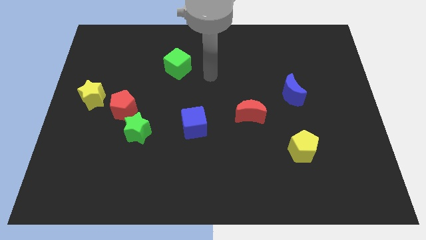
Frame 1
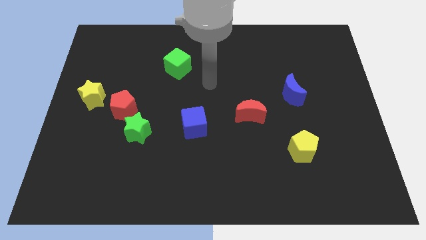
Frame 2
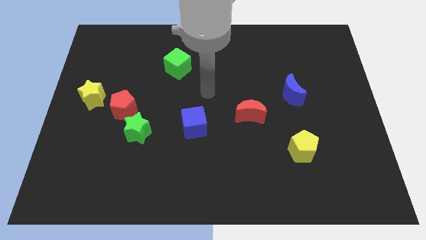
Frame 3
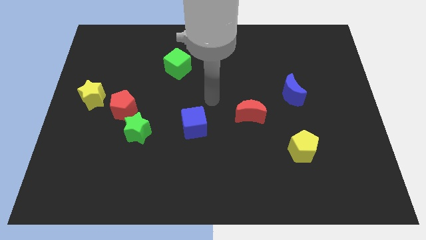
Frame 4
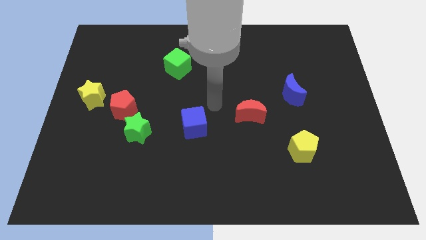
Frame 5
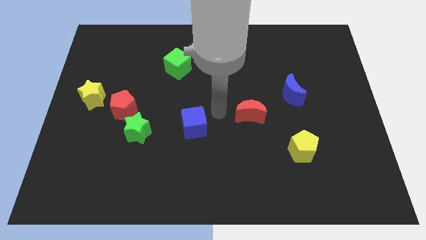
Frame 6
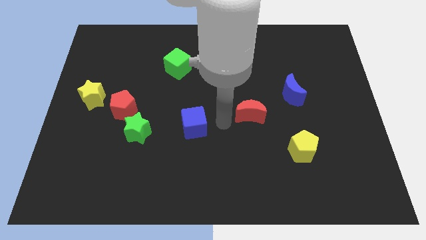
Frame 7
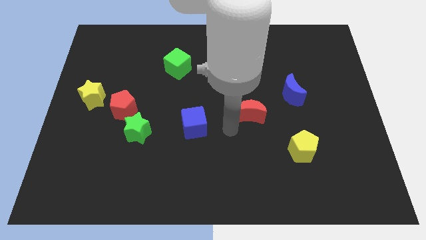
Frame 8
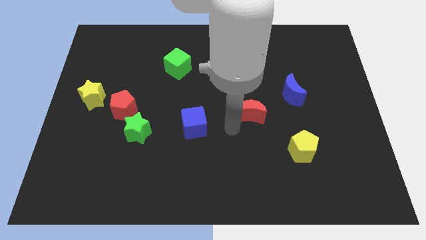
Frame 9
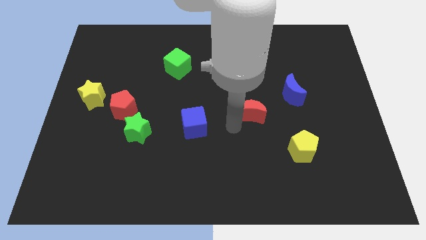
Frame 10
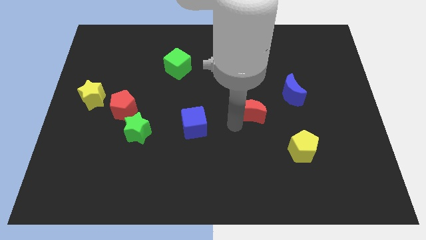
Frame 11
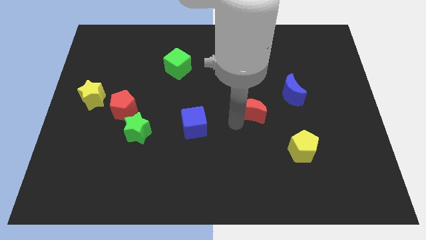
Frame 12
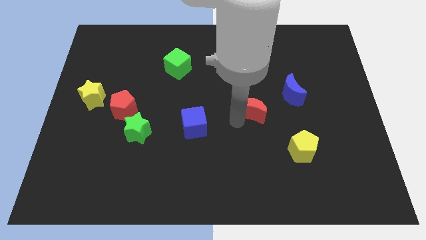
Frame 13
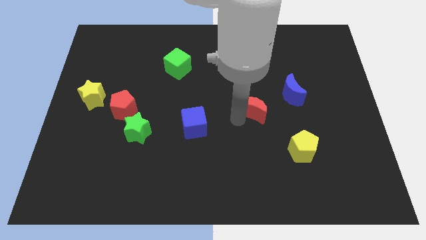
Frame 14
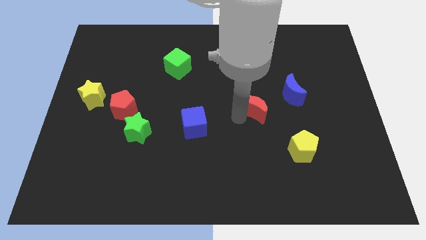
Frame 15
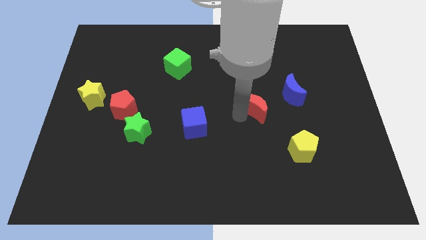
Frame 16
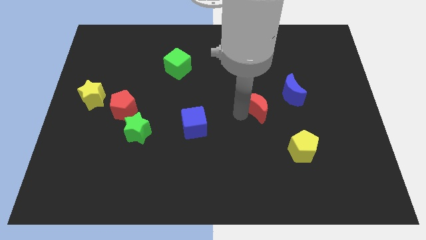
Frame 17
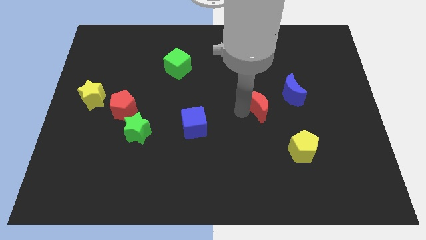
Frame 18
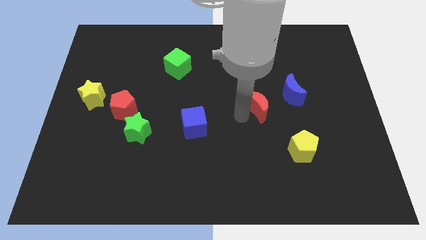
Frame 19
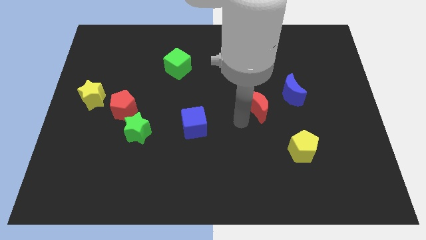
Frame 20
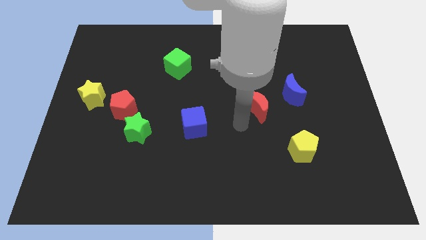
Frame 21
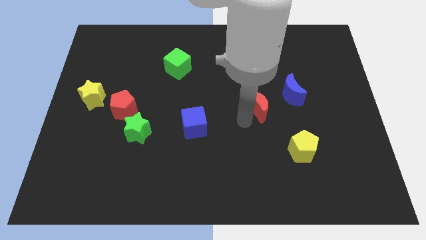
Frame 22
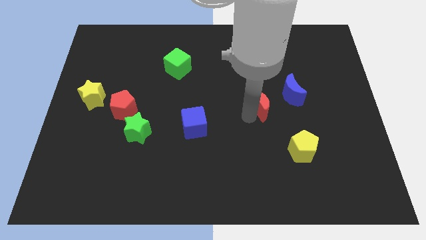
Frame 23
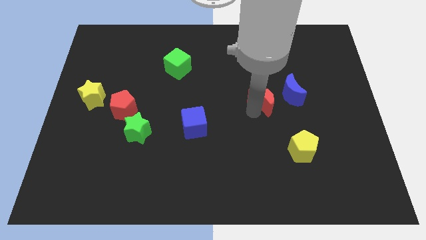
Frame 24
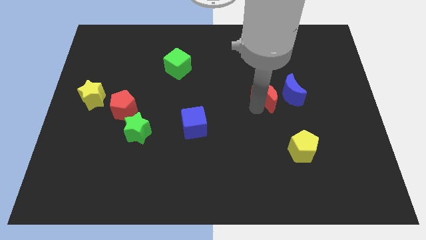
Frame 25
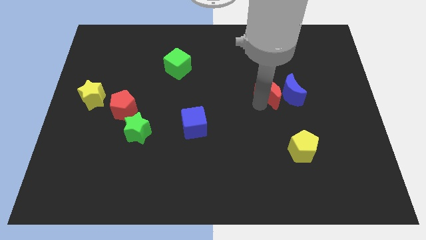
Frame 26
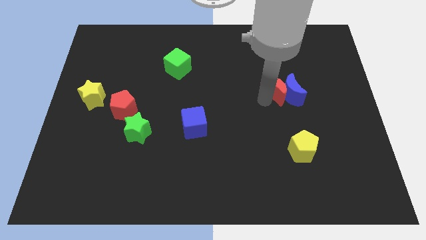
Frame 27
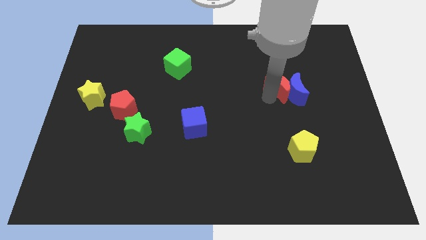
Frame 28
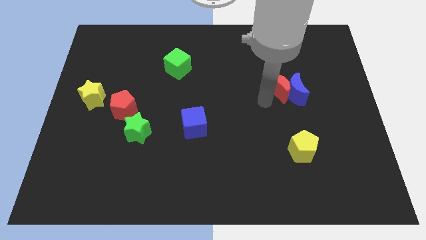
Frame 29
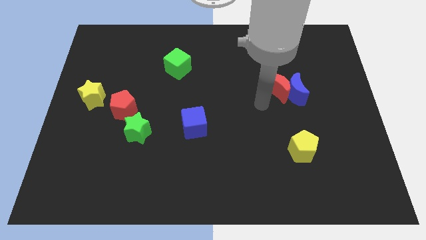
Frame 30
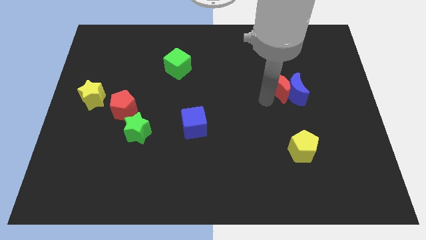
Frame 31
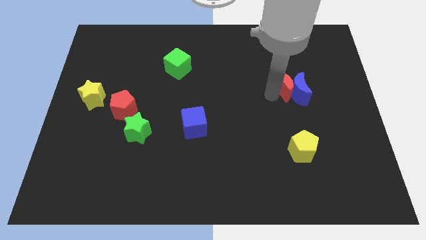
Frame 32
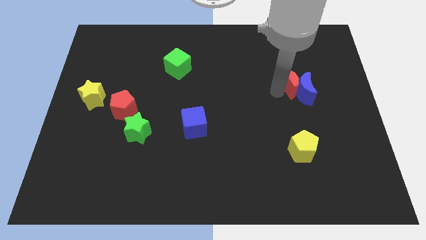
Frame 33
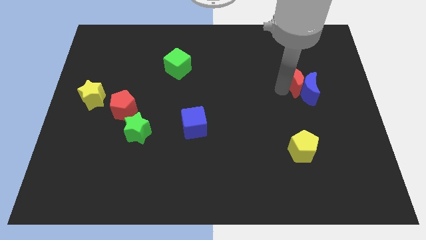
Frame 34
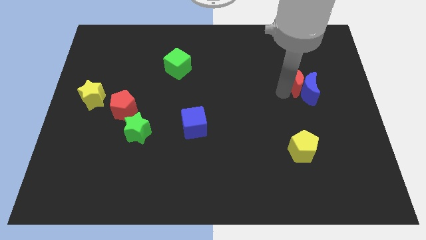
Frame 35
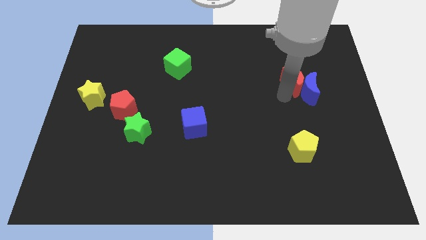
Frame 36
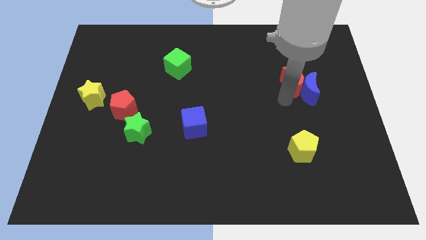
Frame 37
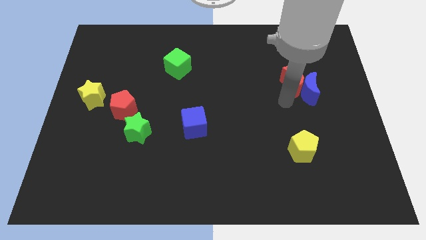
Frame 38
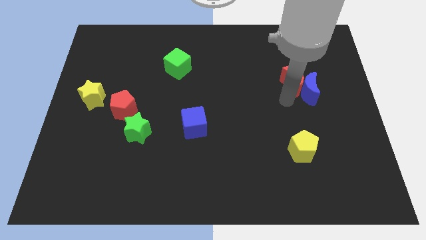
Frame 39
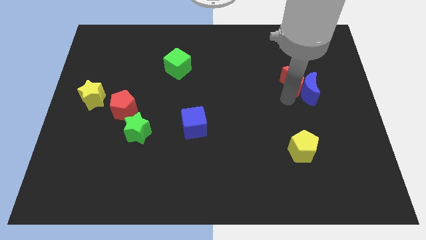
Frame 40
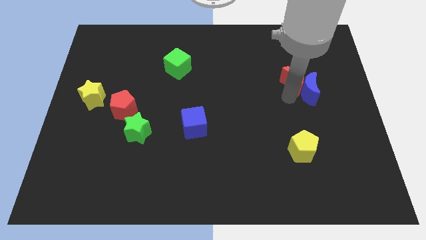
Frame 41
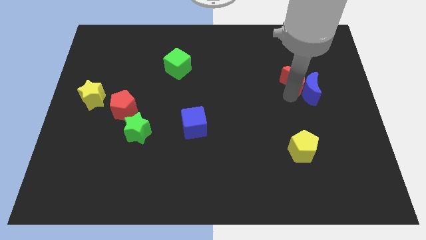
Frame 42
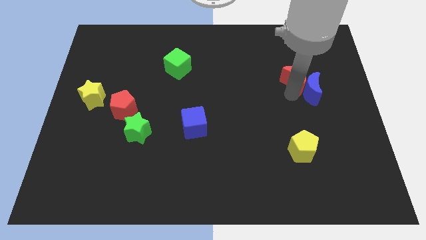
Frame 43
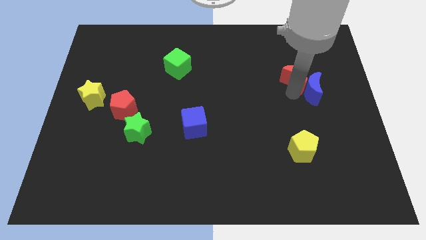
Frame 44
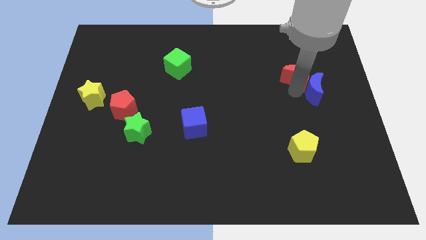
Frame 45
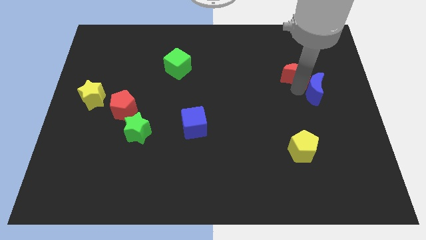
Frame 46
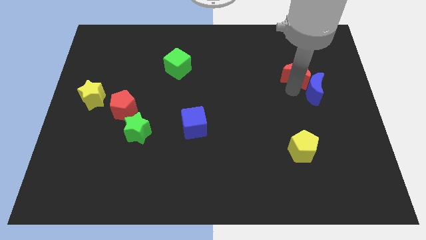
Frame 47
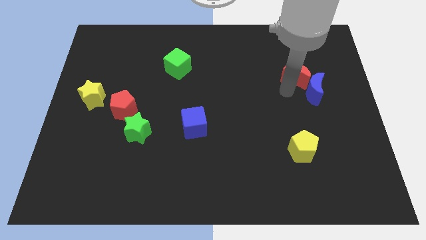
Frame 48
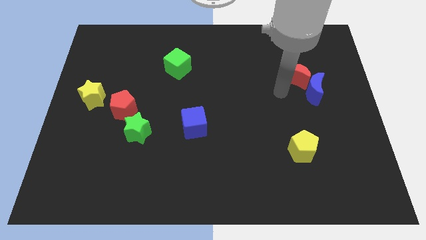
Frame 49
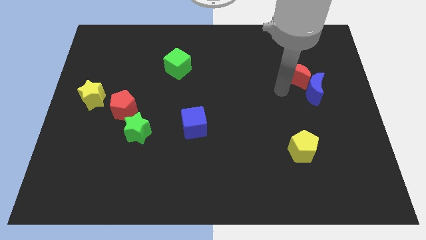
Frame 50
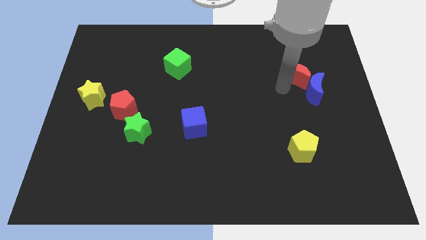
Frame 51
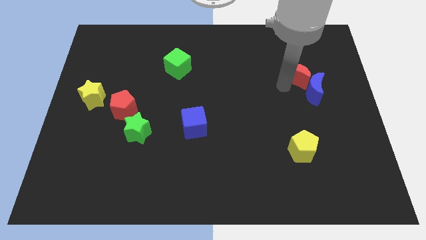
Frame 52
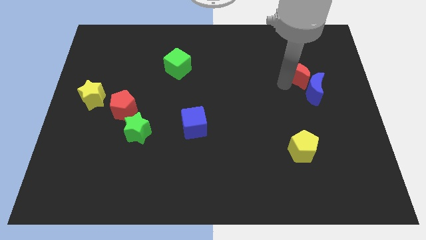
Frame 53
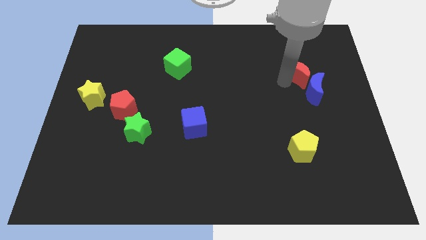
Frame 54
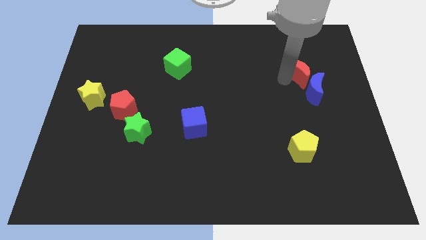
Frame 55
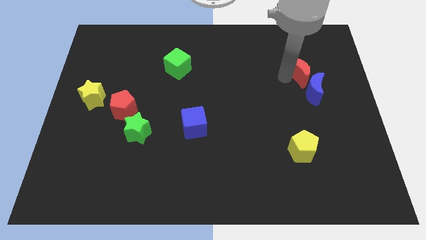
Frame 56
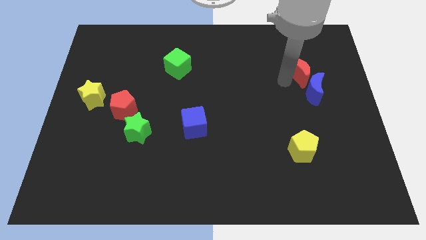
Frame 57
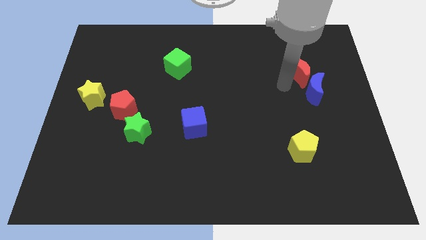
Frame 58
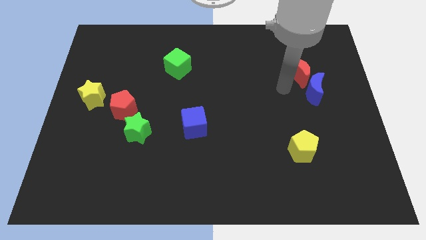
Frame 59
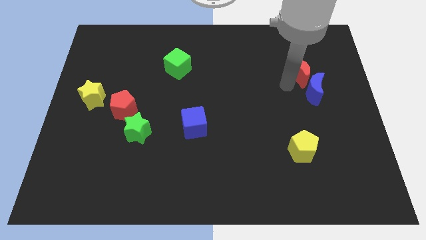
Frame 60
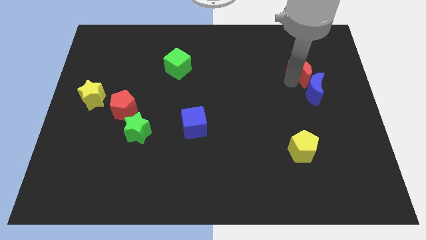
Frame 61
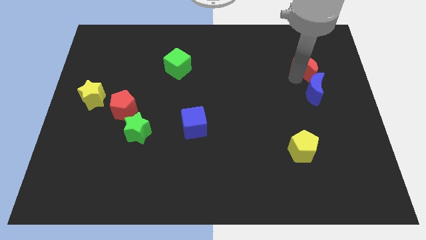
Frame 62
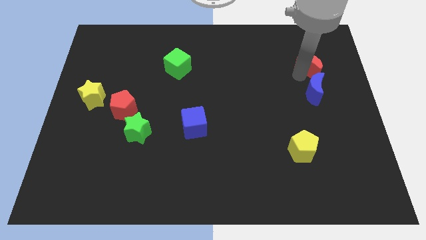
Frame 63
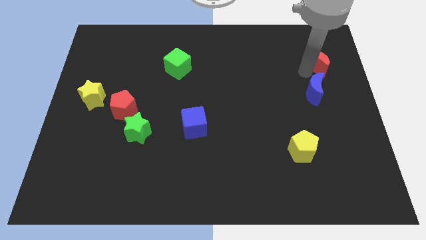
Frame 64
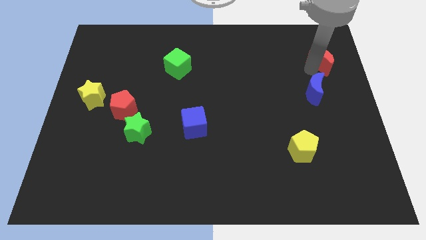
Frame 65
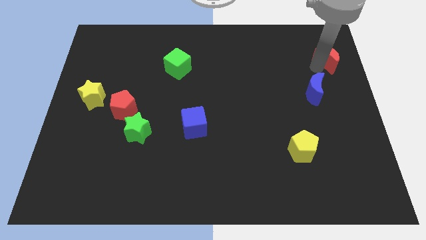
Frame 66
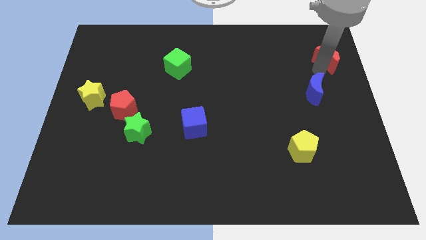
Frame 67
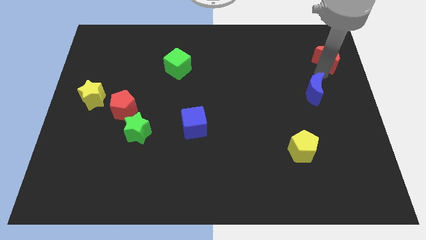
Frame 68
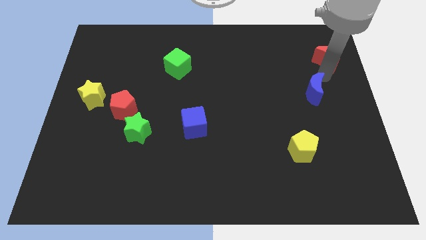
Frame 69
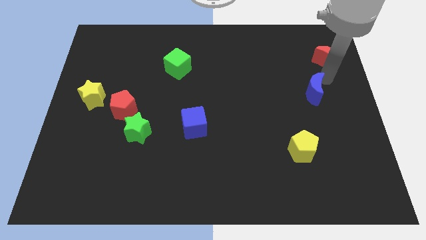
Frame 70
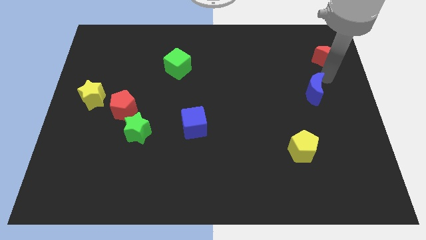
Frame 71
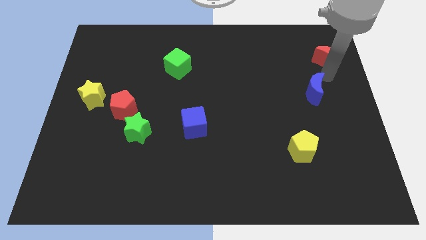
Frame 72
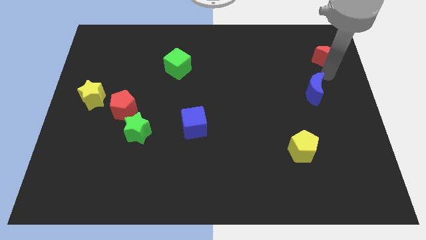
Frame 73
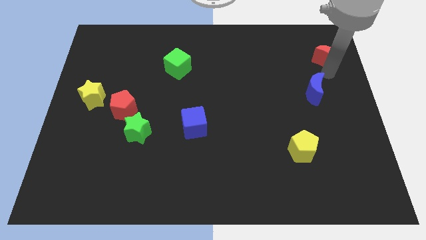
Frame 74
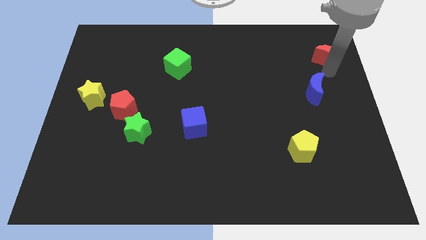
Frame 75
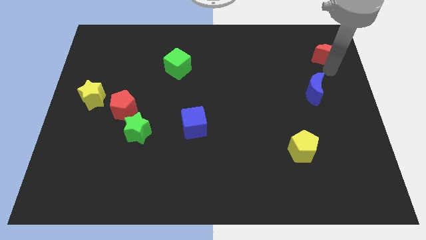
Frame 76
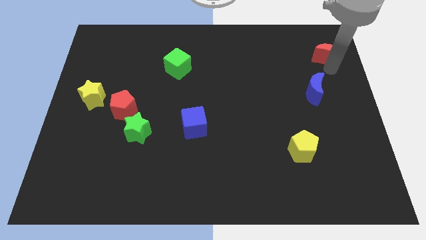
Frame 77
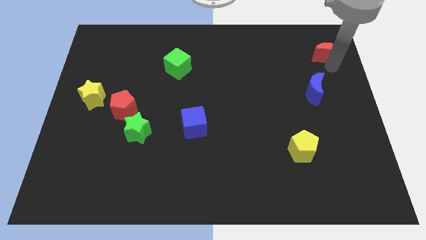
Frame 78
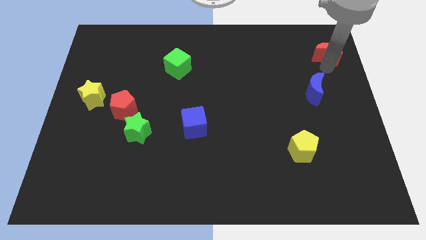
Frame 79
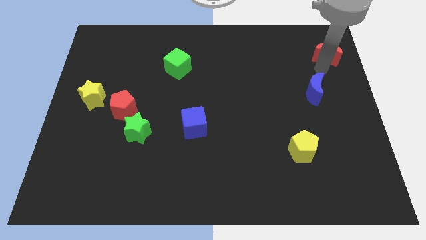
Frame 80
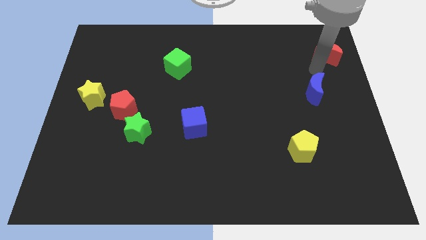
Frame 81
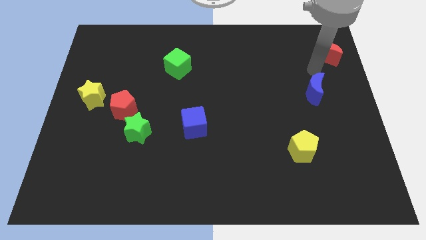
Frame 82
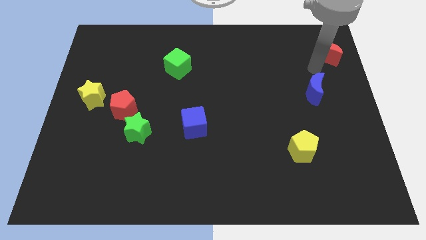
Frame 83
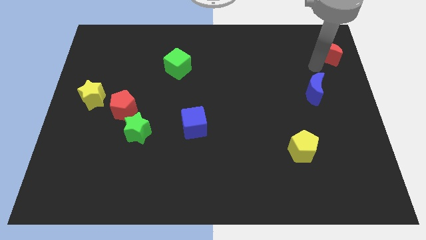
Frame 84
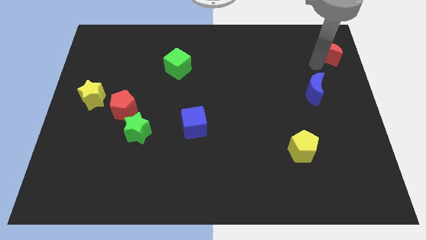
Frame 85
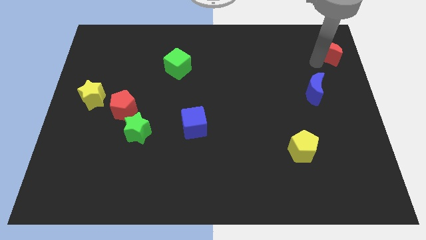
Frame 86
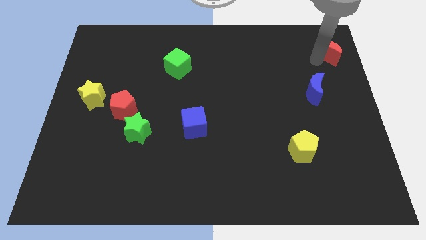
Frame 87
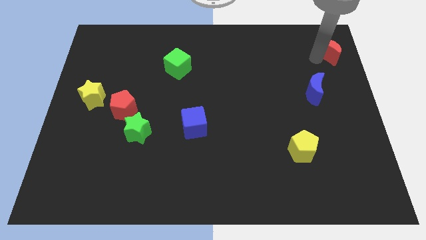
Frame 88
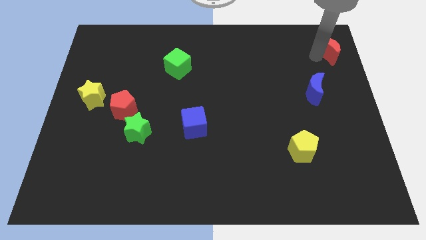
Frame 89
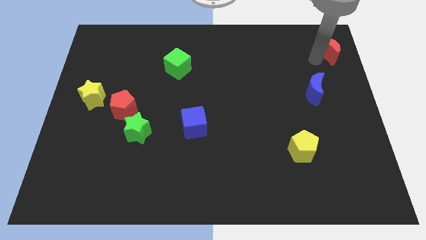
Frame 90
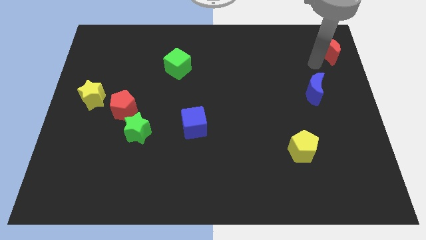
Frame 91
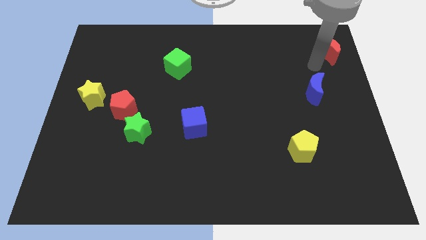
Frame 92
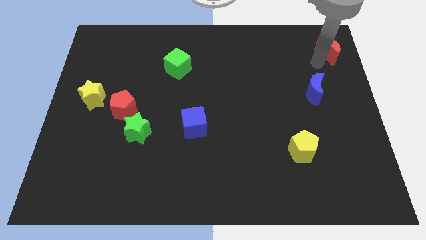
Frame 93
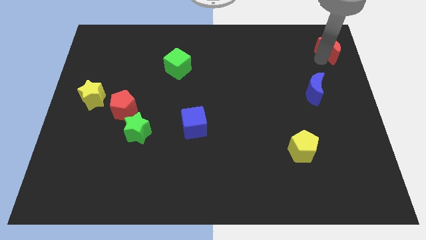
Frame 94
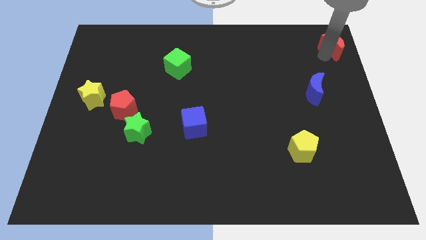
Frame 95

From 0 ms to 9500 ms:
push the red moon to the top right corner
